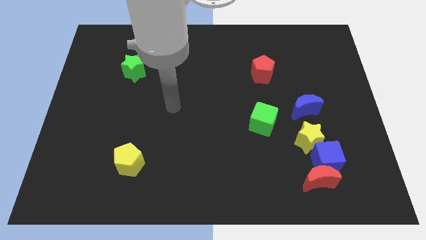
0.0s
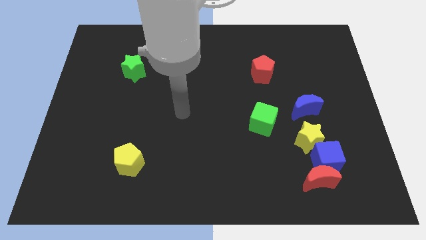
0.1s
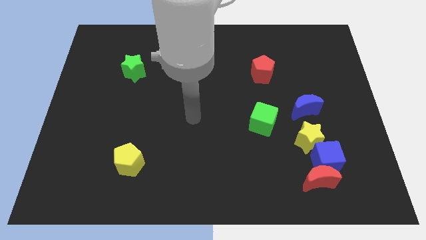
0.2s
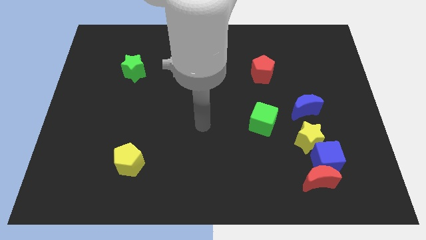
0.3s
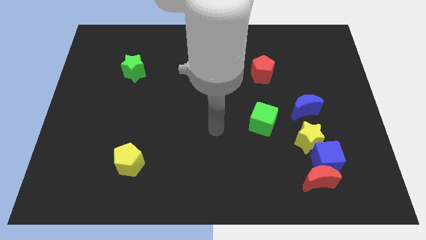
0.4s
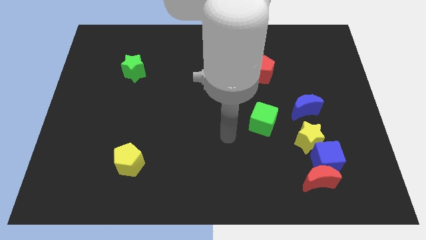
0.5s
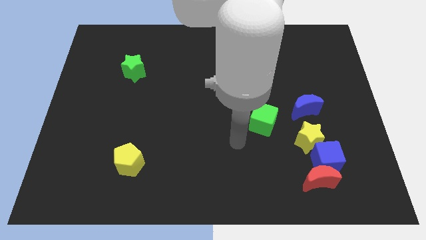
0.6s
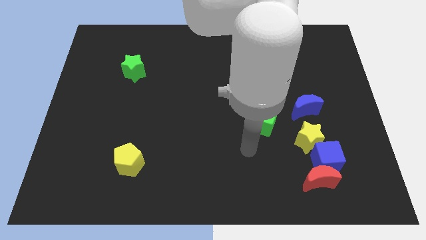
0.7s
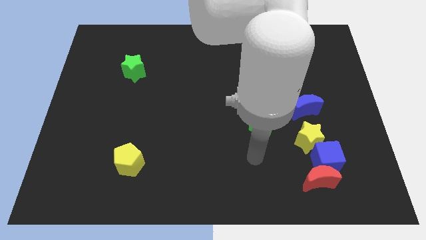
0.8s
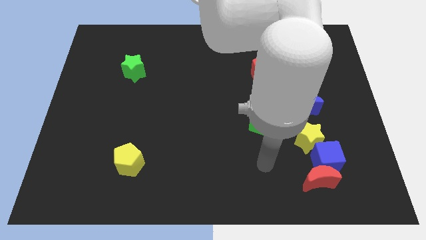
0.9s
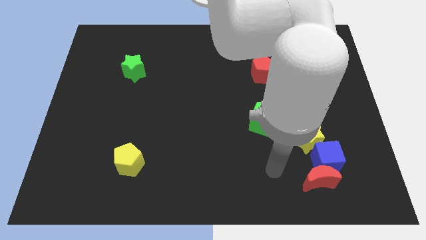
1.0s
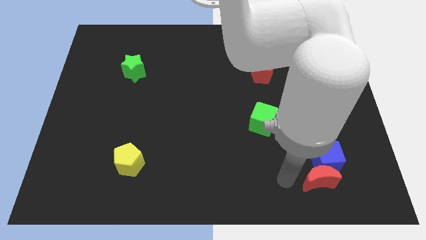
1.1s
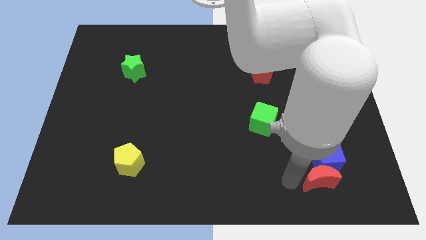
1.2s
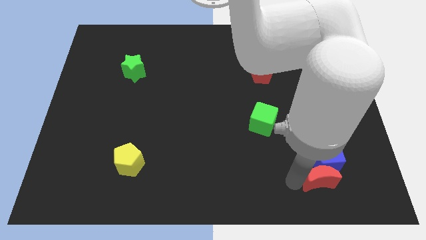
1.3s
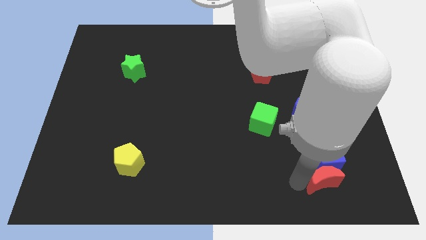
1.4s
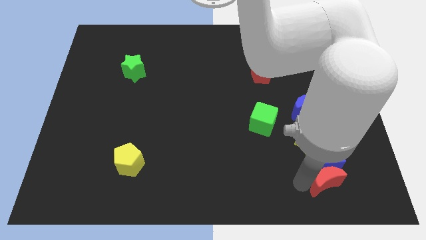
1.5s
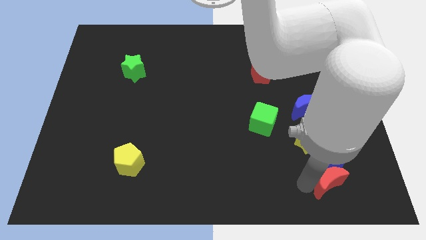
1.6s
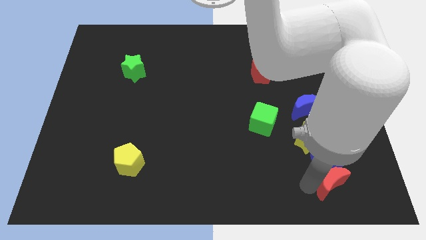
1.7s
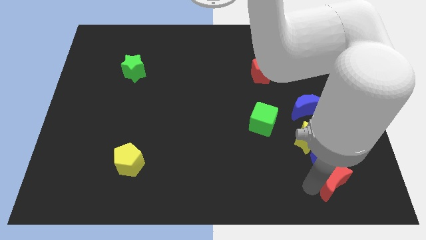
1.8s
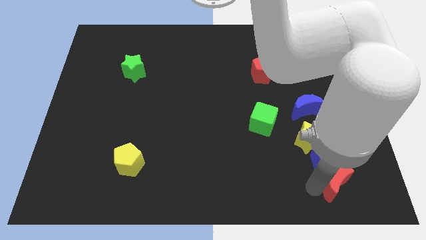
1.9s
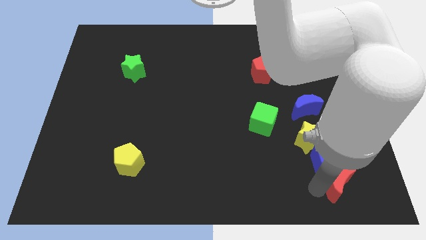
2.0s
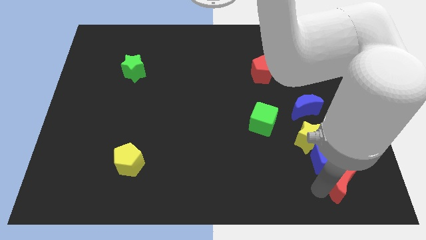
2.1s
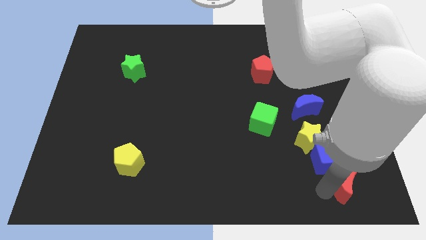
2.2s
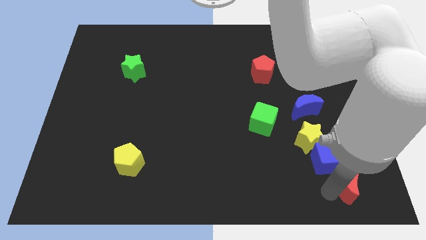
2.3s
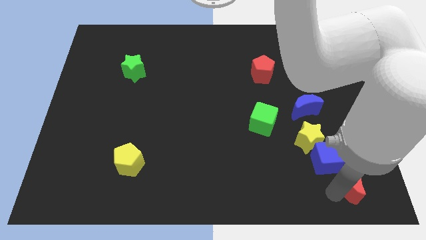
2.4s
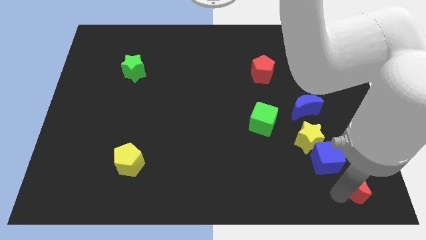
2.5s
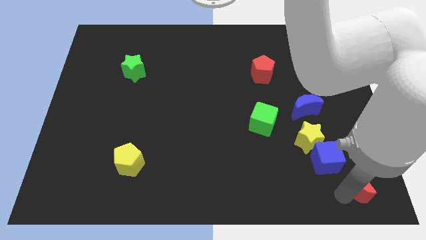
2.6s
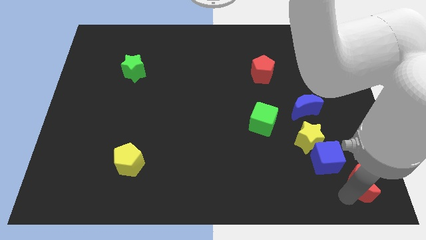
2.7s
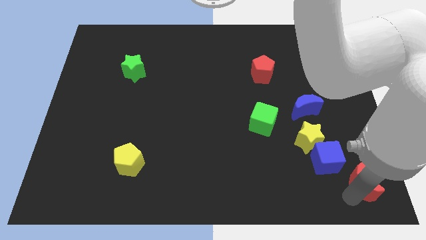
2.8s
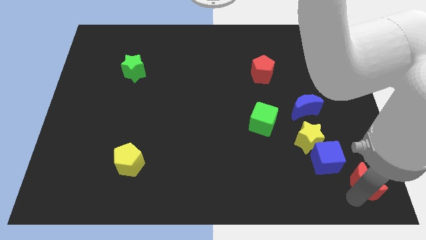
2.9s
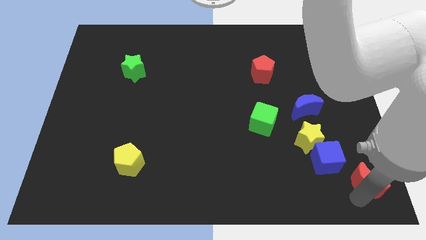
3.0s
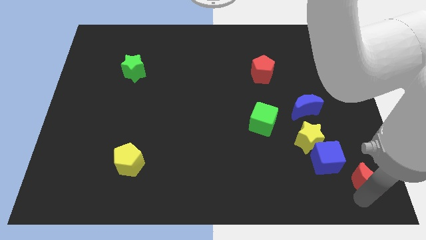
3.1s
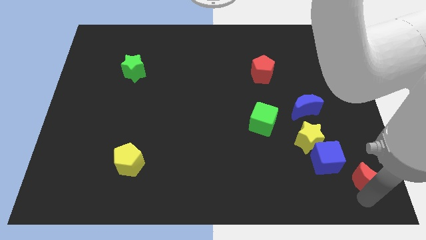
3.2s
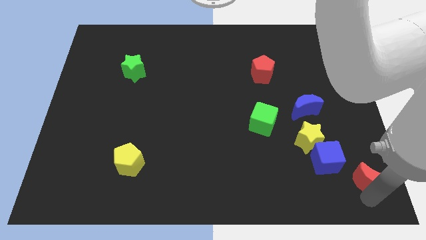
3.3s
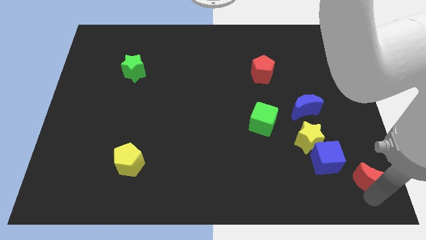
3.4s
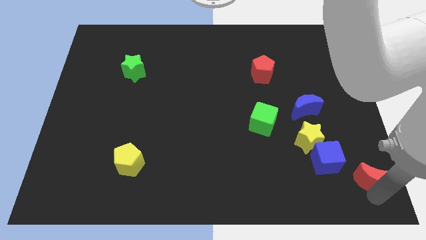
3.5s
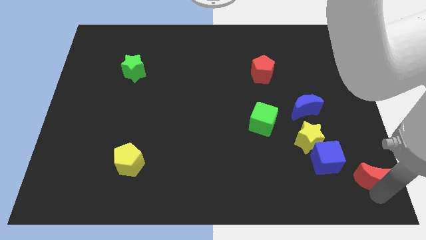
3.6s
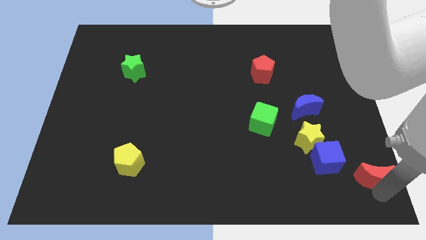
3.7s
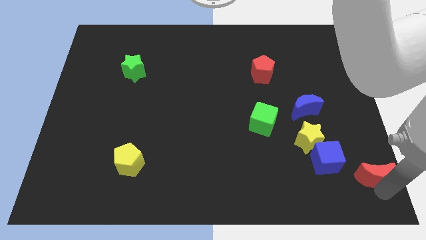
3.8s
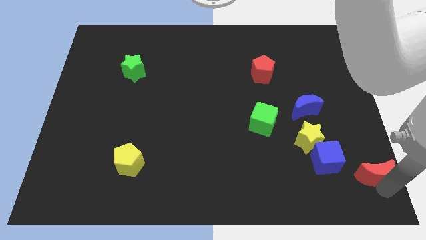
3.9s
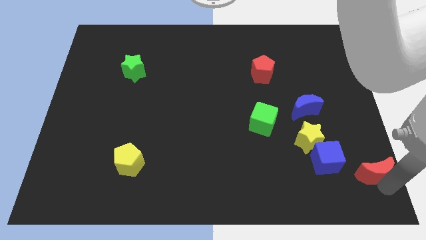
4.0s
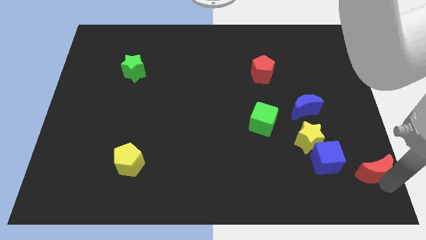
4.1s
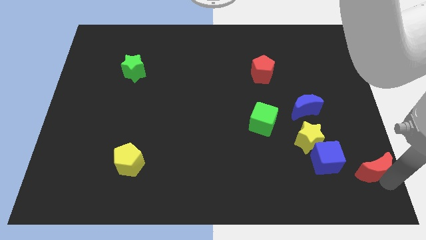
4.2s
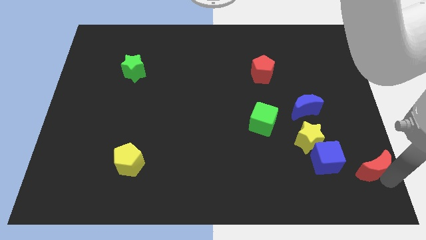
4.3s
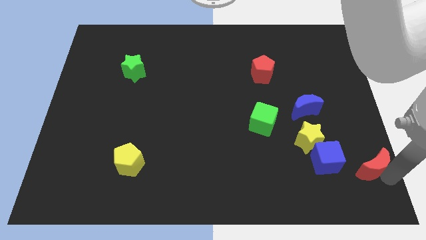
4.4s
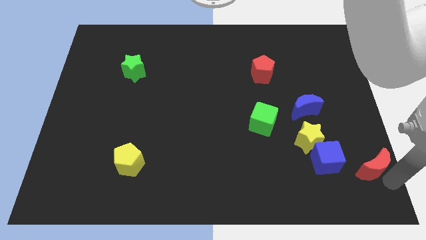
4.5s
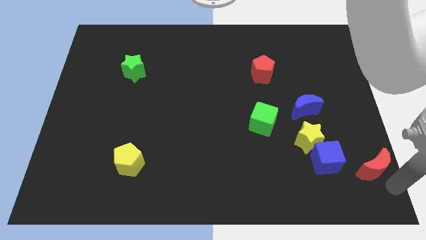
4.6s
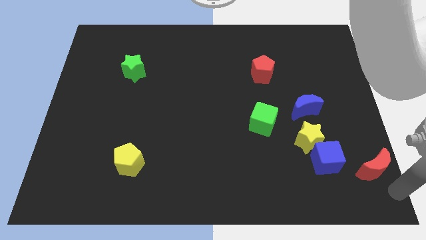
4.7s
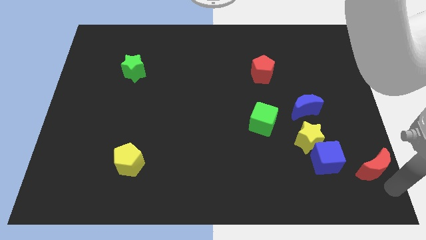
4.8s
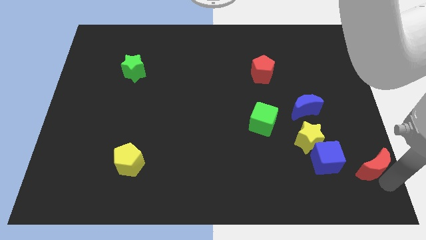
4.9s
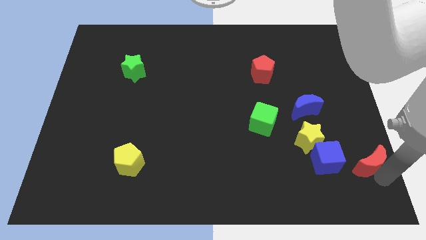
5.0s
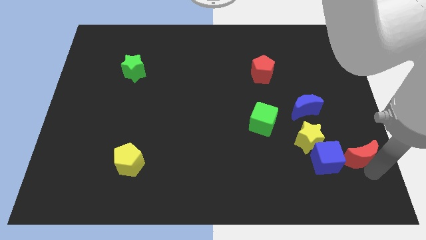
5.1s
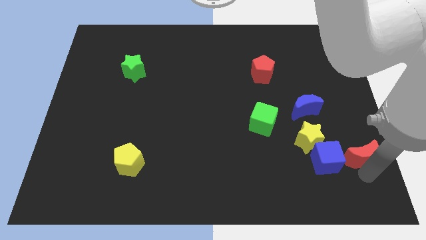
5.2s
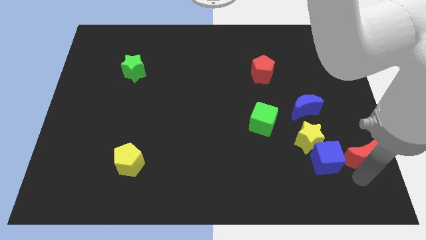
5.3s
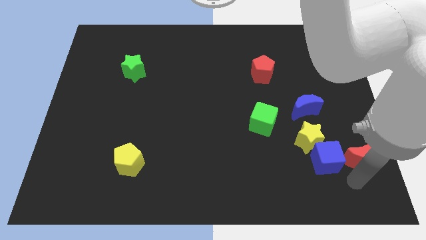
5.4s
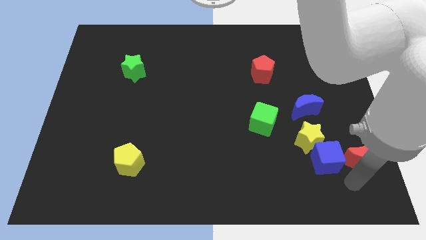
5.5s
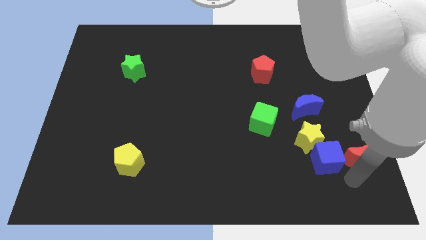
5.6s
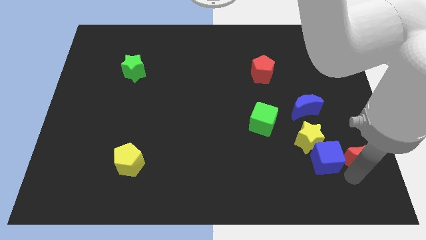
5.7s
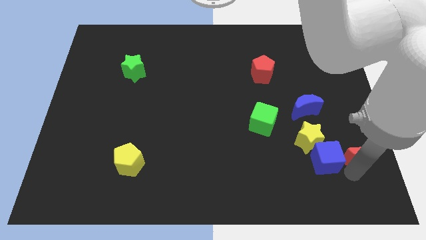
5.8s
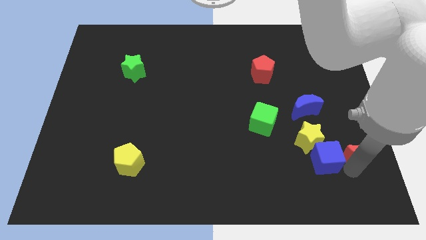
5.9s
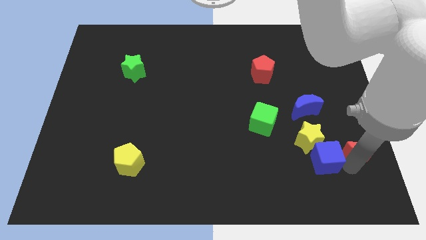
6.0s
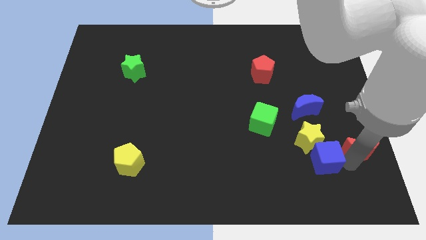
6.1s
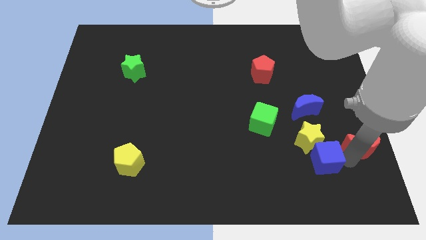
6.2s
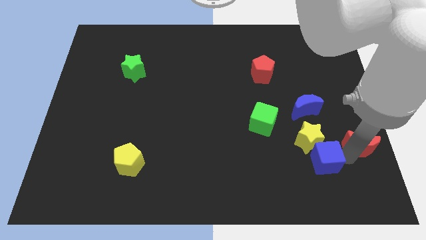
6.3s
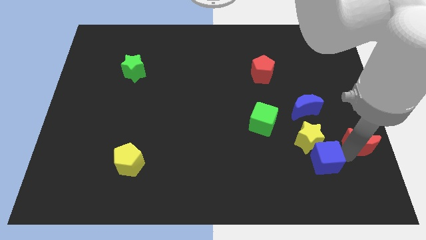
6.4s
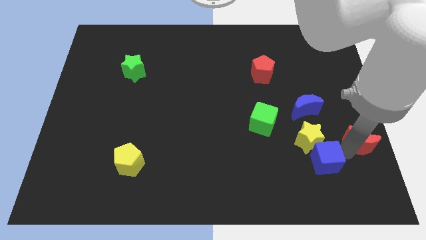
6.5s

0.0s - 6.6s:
slide the red moon to the right side of the board
